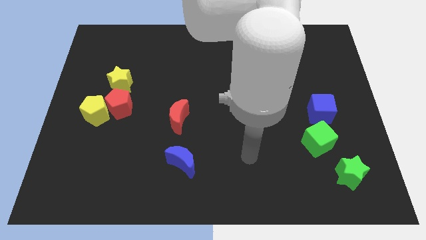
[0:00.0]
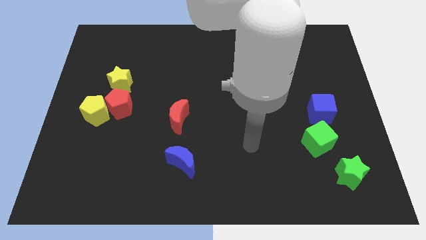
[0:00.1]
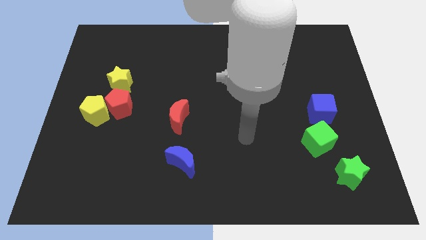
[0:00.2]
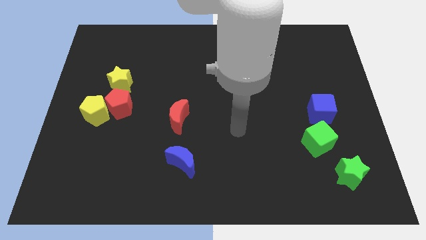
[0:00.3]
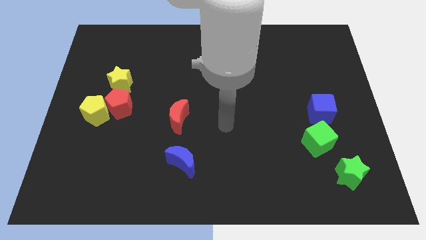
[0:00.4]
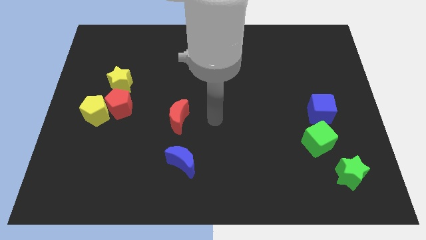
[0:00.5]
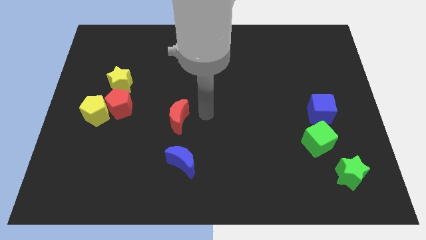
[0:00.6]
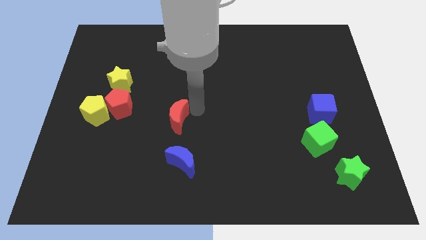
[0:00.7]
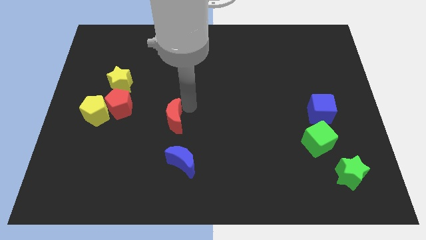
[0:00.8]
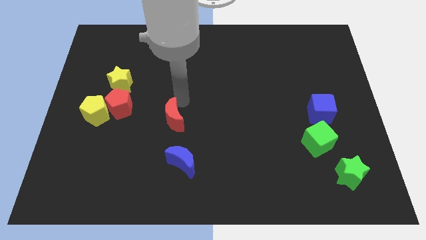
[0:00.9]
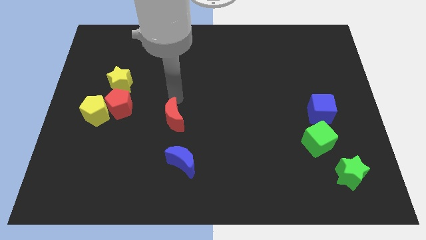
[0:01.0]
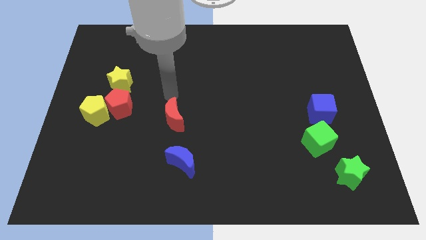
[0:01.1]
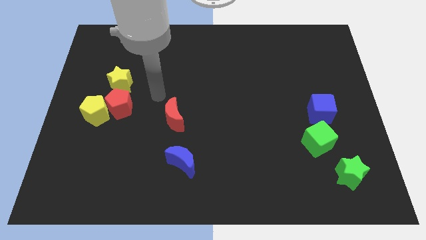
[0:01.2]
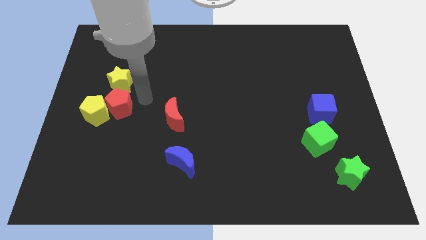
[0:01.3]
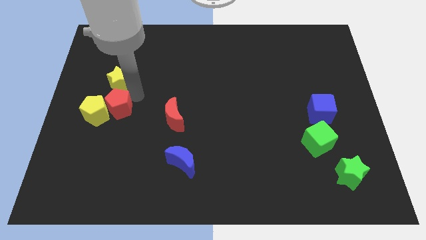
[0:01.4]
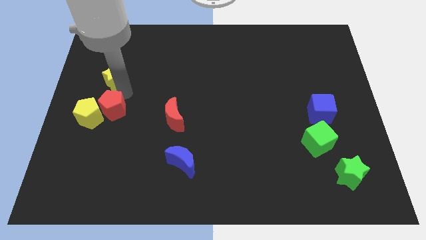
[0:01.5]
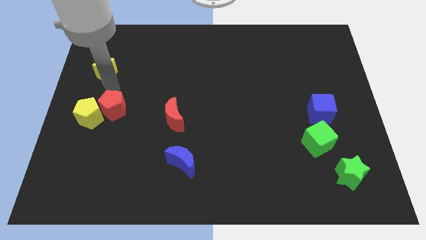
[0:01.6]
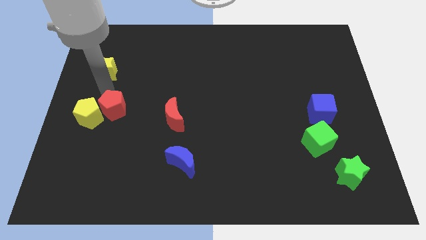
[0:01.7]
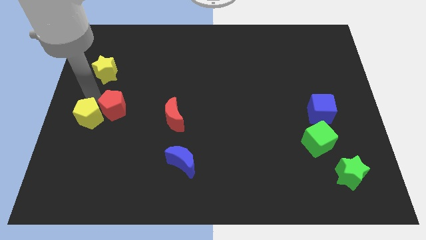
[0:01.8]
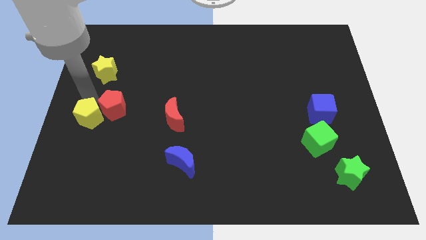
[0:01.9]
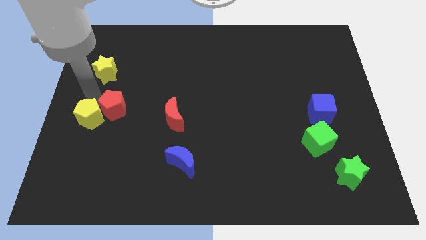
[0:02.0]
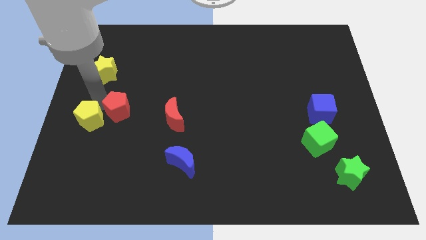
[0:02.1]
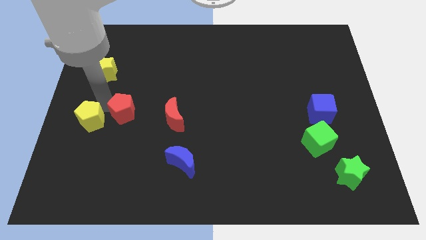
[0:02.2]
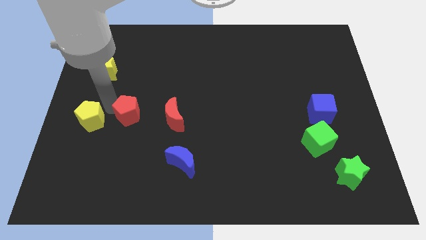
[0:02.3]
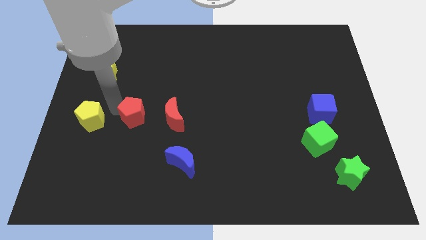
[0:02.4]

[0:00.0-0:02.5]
move the red pentagon away from the yellow pentagon and yellow star

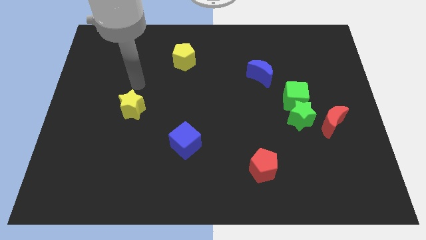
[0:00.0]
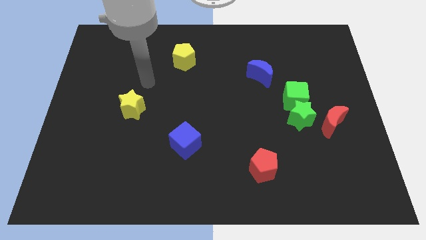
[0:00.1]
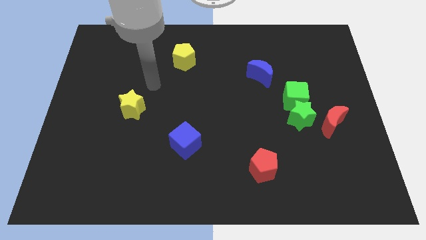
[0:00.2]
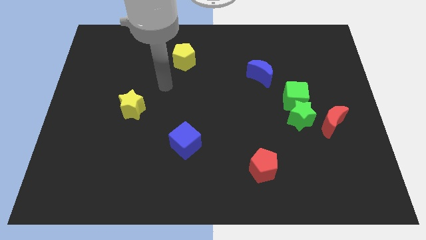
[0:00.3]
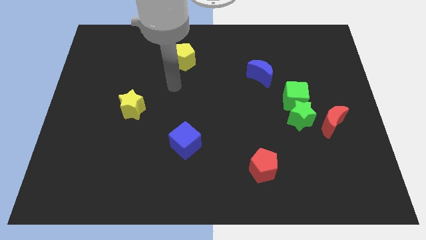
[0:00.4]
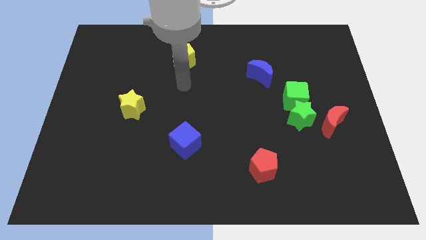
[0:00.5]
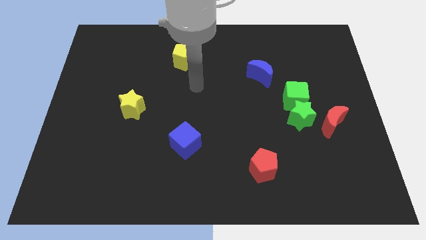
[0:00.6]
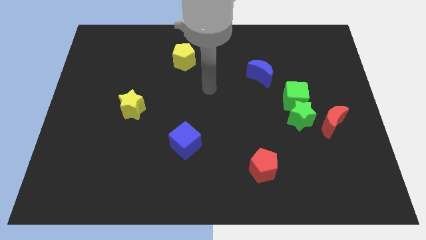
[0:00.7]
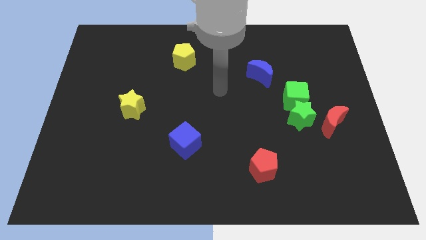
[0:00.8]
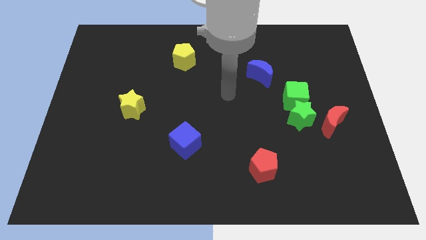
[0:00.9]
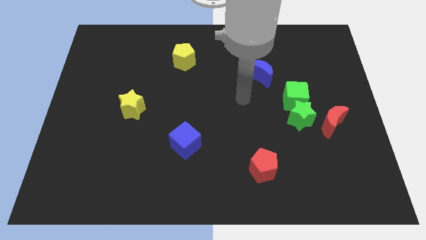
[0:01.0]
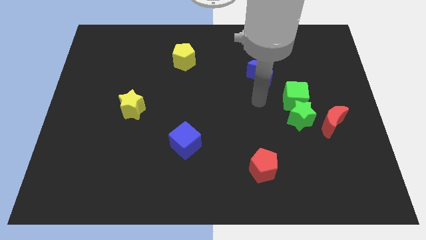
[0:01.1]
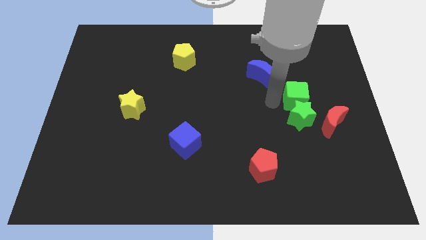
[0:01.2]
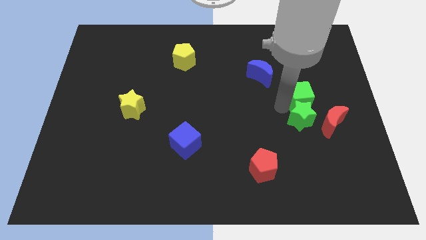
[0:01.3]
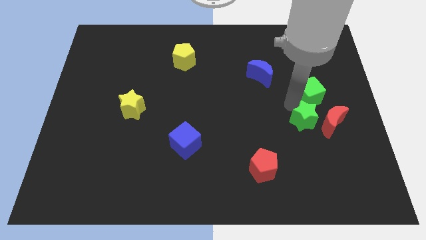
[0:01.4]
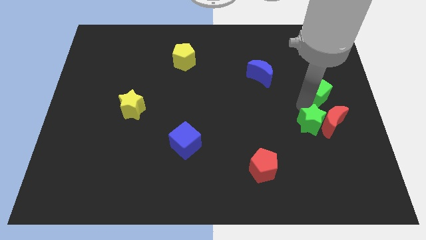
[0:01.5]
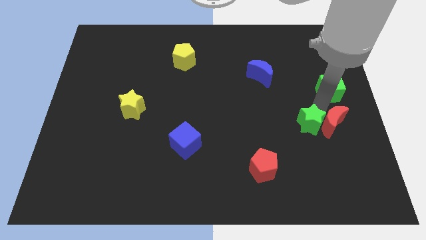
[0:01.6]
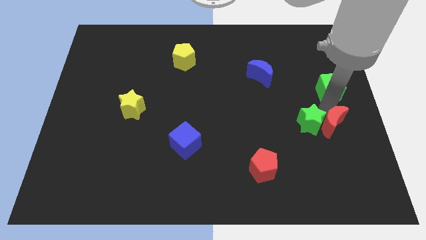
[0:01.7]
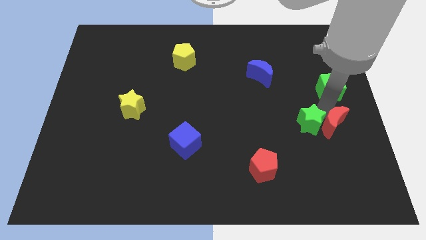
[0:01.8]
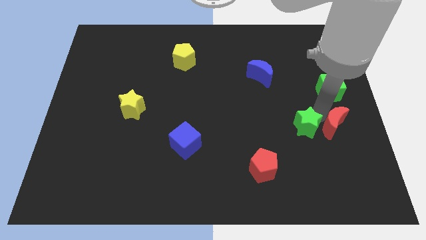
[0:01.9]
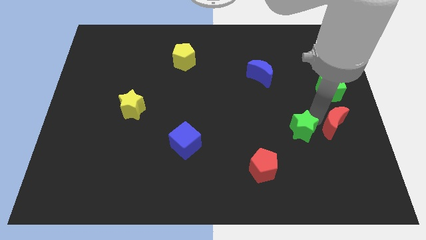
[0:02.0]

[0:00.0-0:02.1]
pull the green star apart from the green cube and red moon

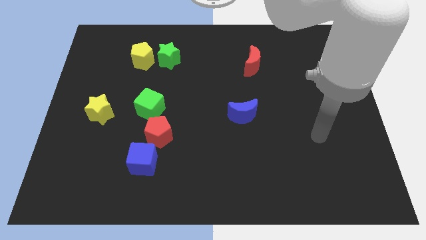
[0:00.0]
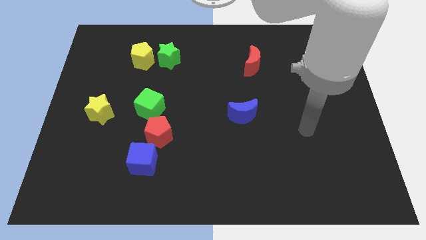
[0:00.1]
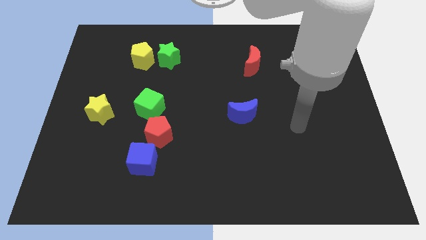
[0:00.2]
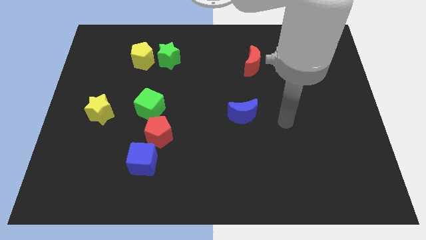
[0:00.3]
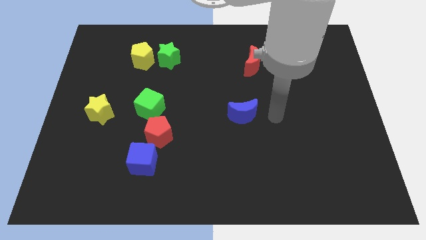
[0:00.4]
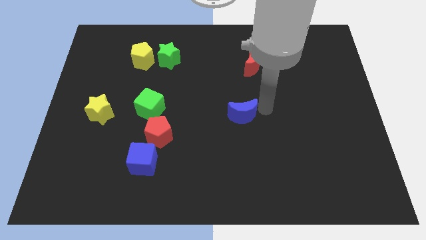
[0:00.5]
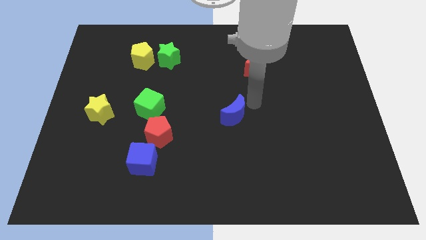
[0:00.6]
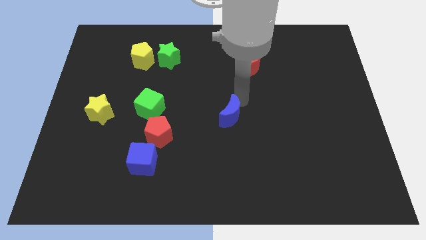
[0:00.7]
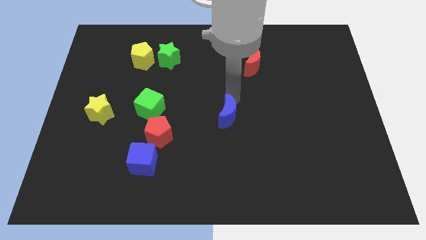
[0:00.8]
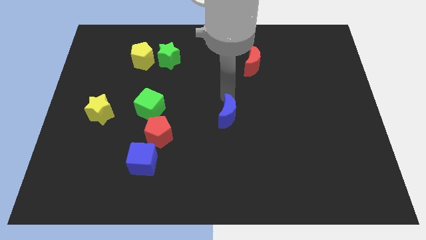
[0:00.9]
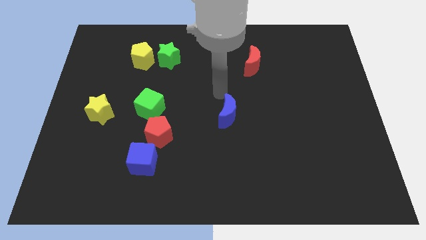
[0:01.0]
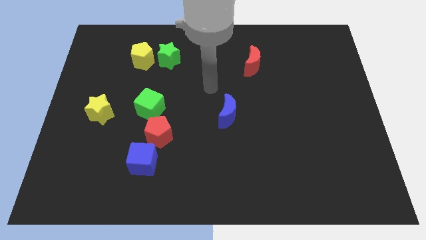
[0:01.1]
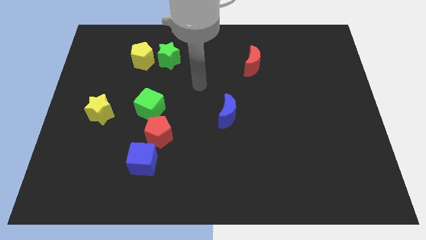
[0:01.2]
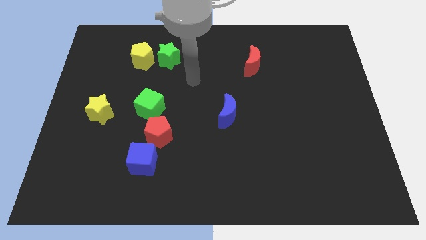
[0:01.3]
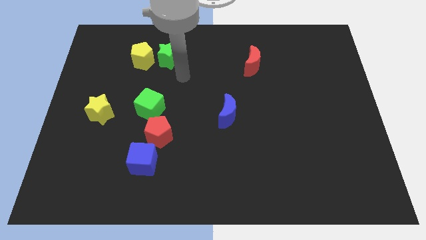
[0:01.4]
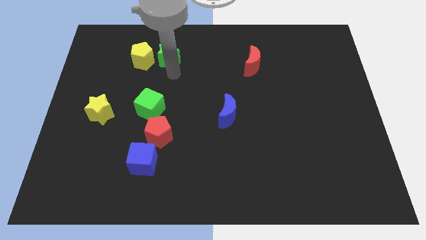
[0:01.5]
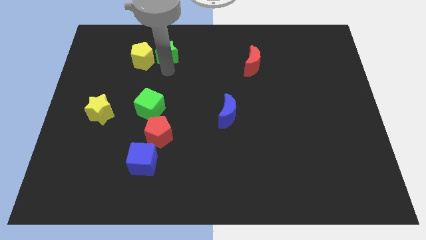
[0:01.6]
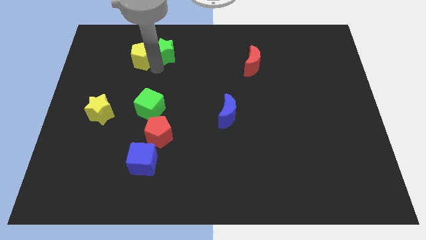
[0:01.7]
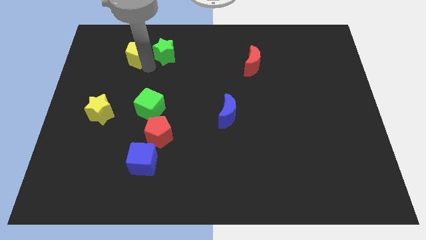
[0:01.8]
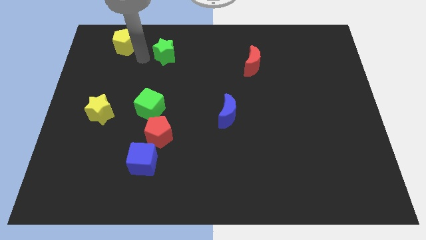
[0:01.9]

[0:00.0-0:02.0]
pull the green star apart from the yellow pentagon

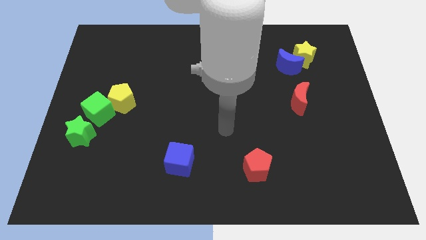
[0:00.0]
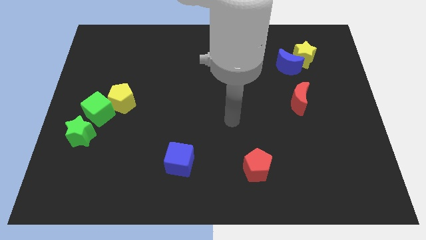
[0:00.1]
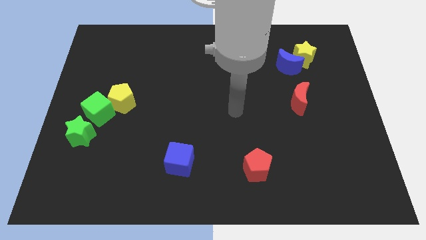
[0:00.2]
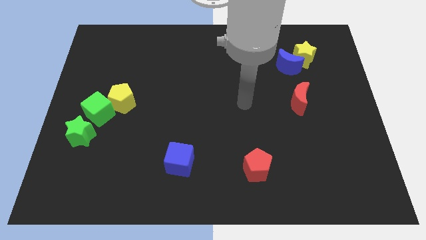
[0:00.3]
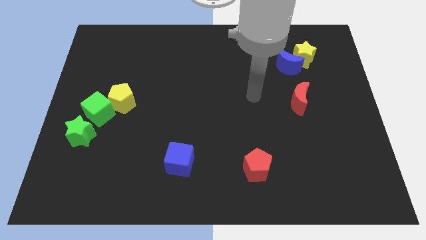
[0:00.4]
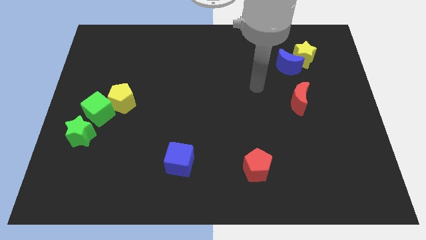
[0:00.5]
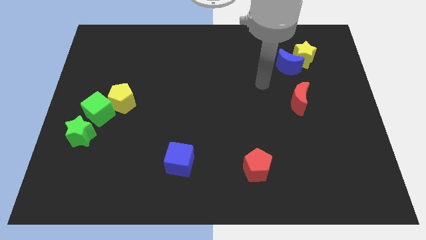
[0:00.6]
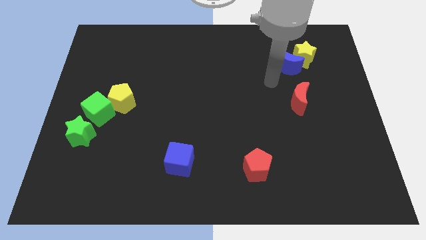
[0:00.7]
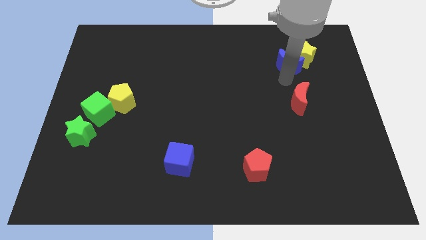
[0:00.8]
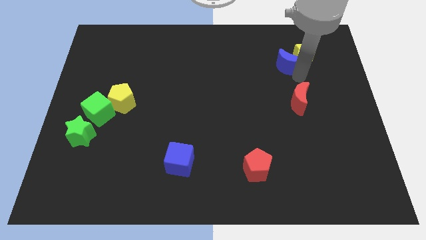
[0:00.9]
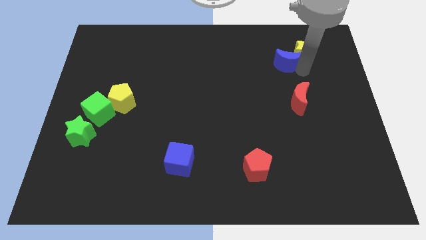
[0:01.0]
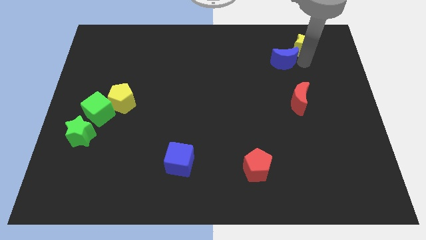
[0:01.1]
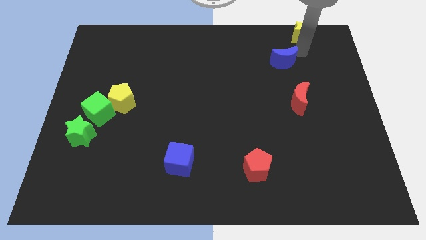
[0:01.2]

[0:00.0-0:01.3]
move the blue moon away from the yellow star

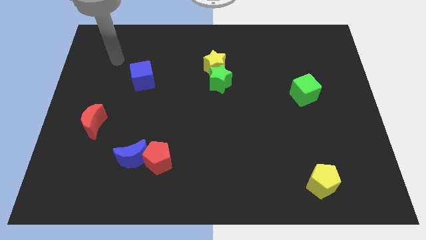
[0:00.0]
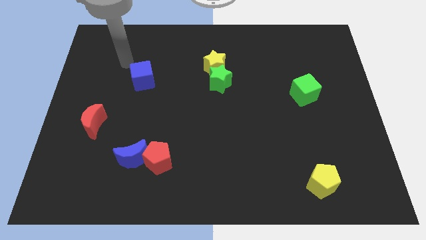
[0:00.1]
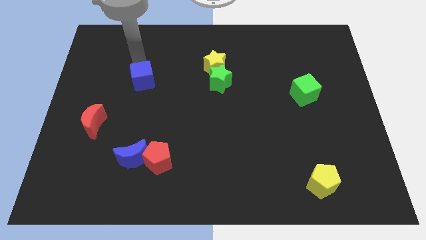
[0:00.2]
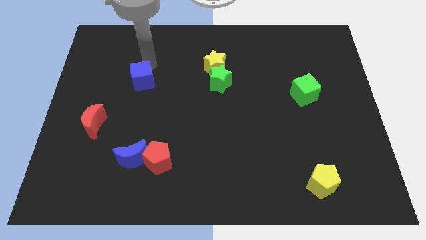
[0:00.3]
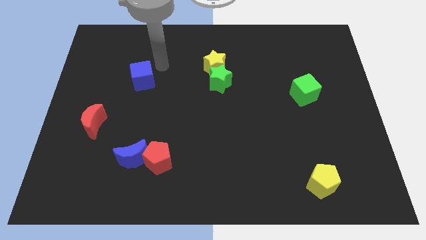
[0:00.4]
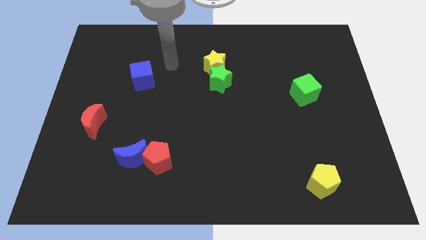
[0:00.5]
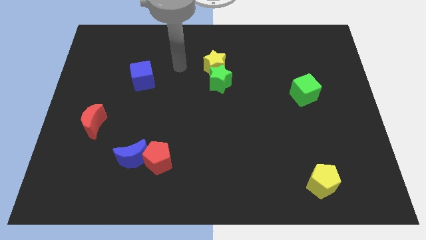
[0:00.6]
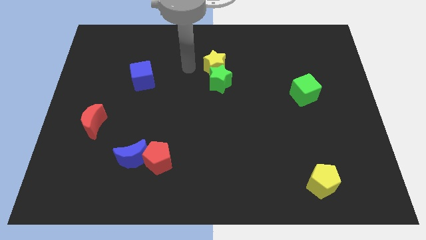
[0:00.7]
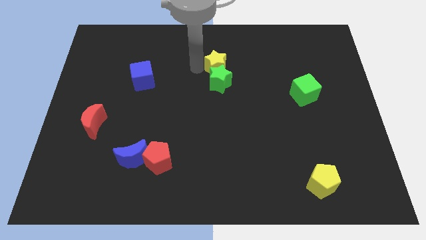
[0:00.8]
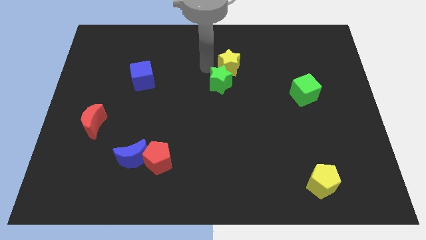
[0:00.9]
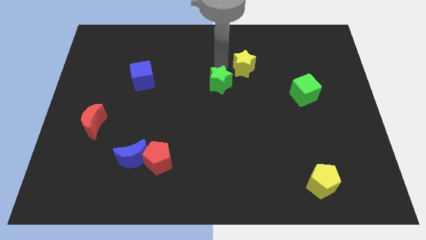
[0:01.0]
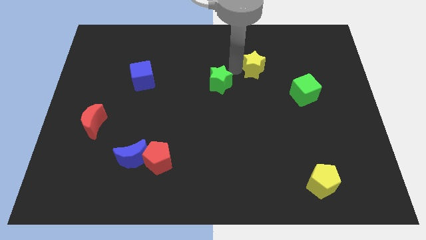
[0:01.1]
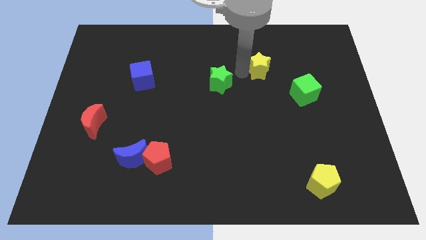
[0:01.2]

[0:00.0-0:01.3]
move the green star away from the yellow star

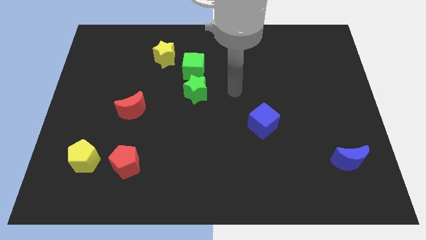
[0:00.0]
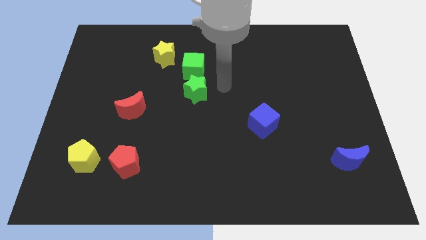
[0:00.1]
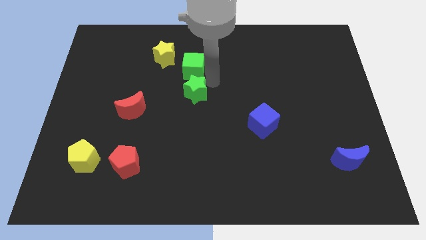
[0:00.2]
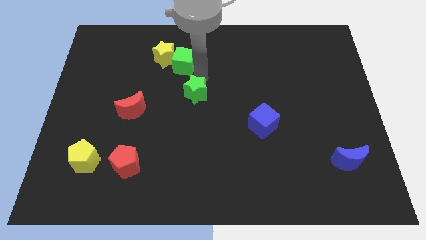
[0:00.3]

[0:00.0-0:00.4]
separate the green star from the green cube
